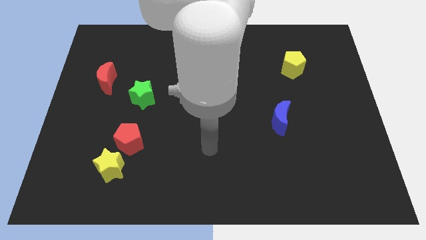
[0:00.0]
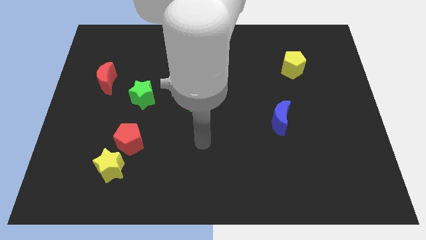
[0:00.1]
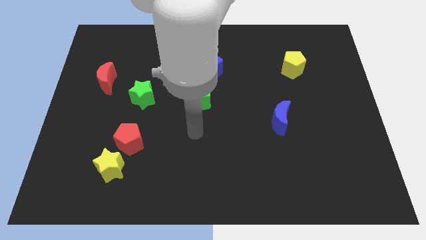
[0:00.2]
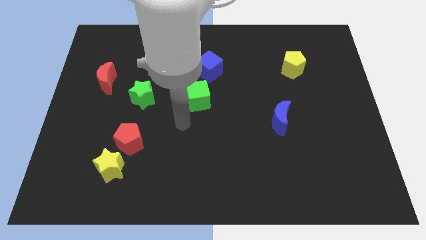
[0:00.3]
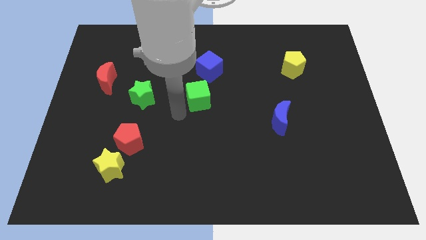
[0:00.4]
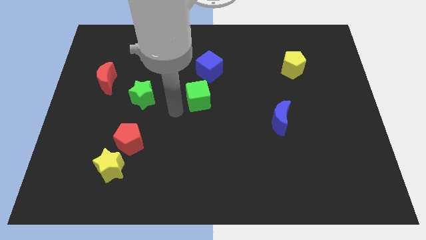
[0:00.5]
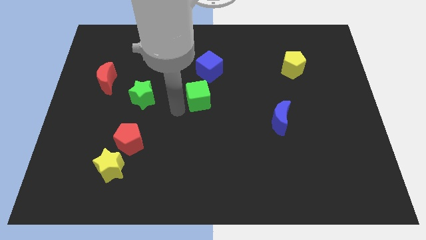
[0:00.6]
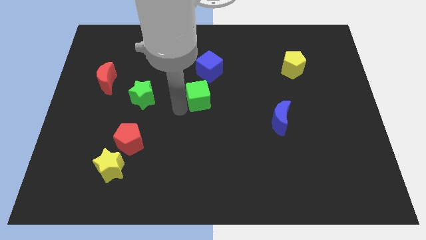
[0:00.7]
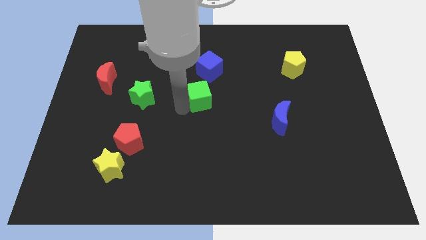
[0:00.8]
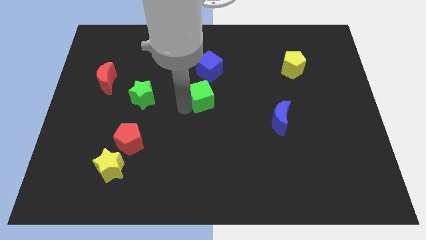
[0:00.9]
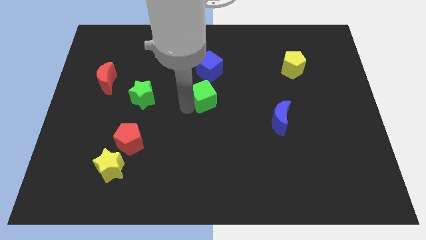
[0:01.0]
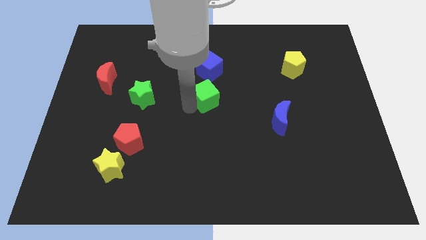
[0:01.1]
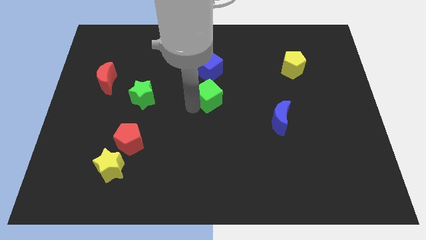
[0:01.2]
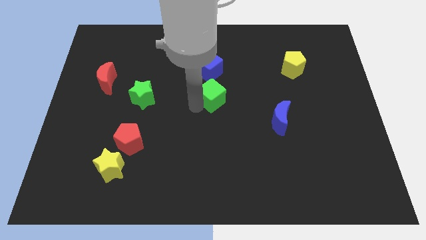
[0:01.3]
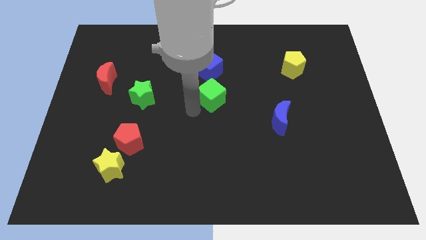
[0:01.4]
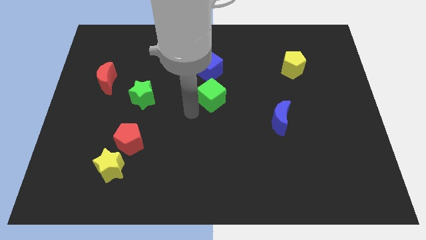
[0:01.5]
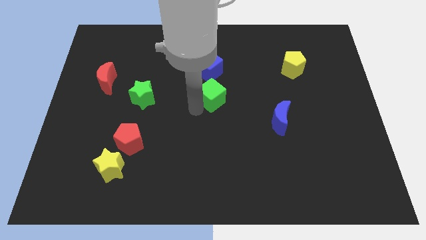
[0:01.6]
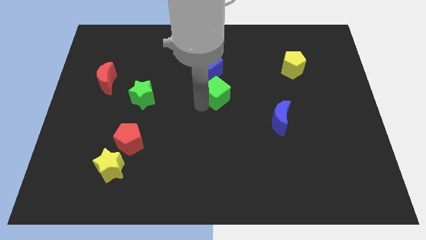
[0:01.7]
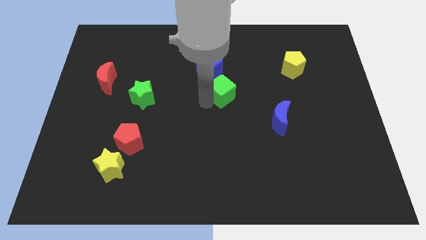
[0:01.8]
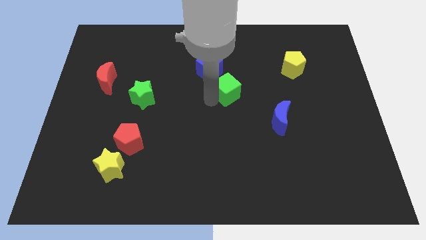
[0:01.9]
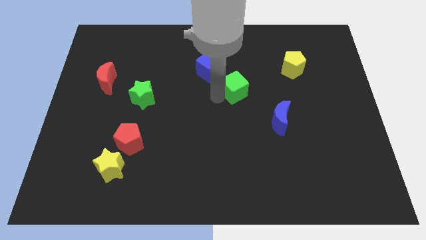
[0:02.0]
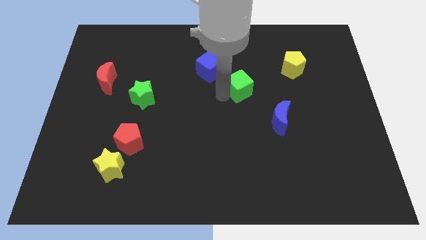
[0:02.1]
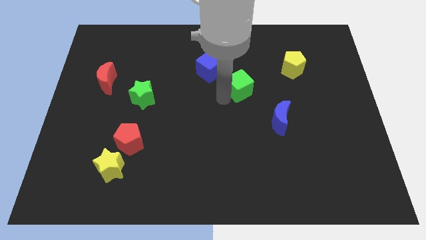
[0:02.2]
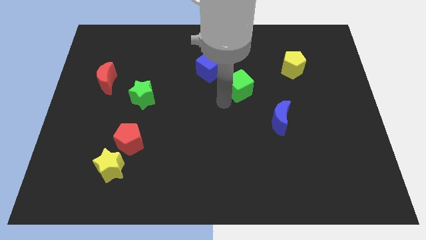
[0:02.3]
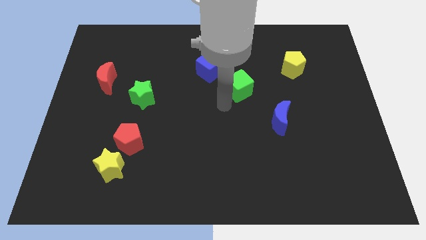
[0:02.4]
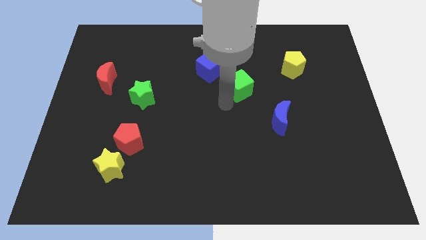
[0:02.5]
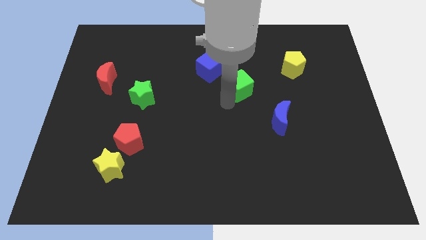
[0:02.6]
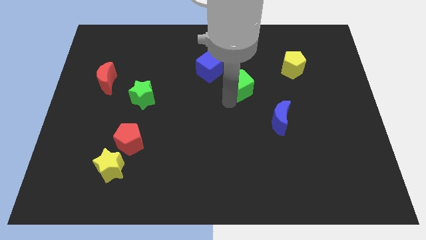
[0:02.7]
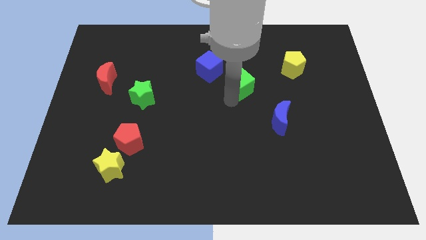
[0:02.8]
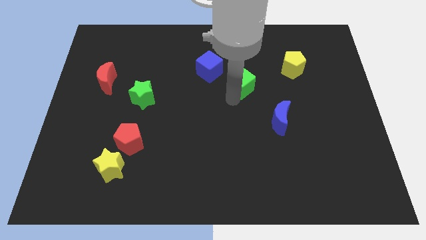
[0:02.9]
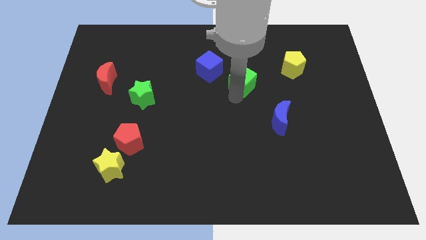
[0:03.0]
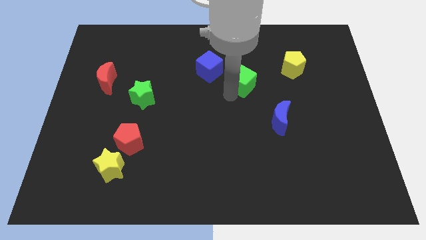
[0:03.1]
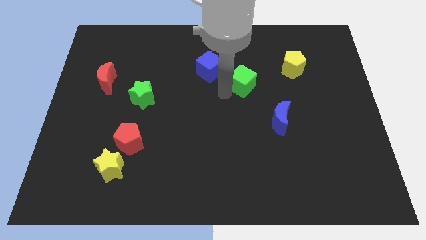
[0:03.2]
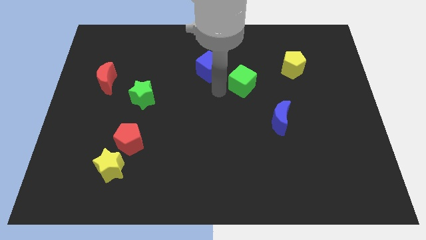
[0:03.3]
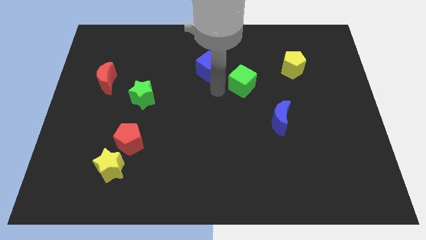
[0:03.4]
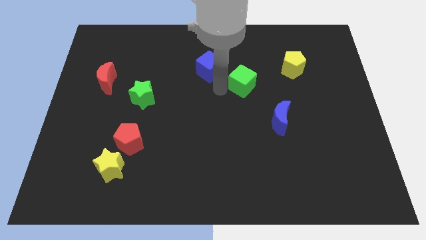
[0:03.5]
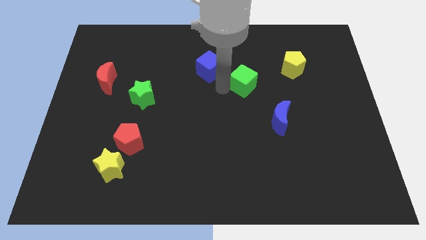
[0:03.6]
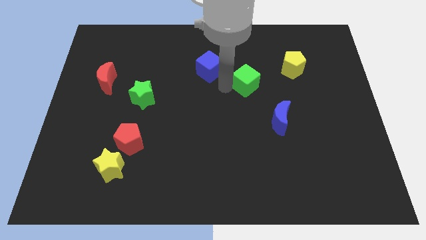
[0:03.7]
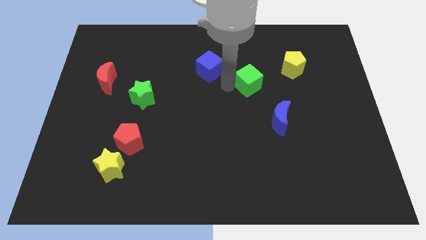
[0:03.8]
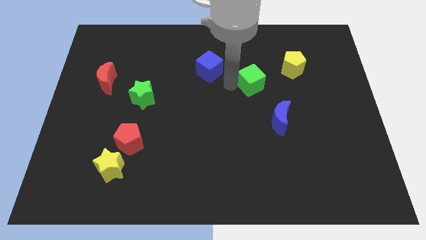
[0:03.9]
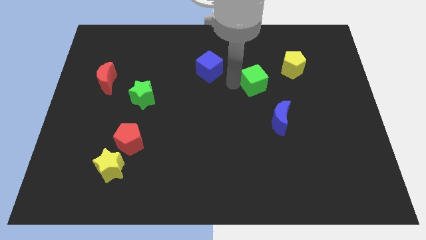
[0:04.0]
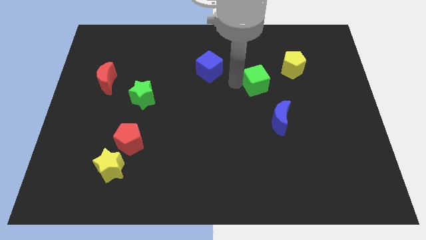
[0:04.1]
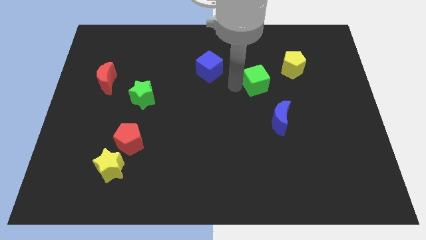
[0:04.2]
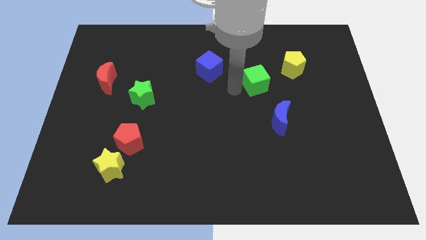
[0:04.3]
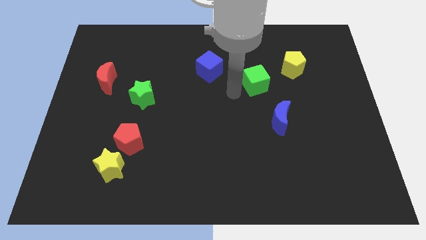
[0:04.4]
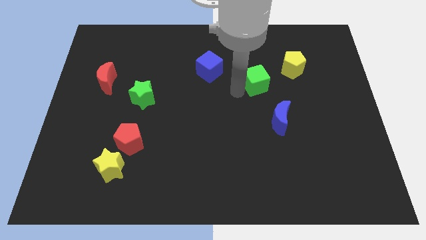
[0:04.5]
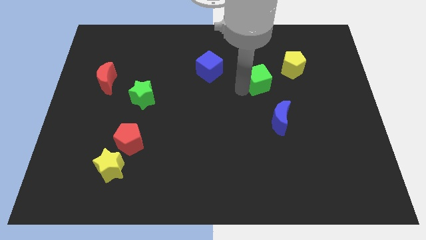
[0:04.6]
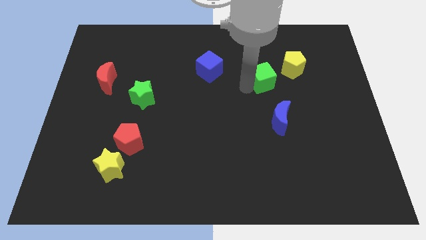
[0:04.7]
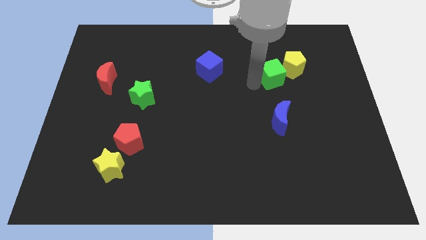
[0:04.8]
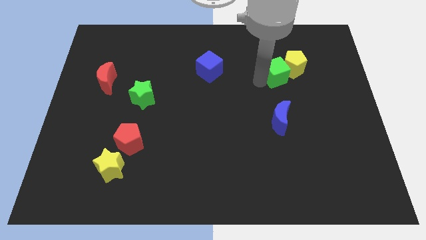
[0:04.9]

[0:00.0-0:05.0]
slide the green cube next to the yellow pentagon
